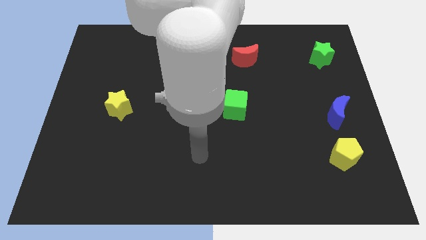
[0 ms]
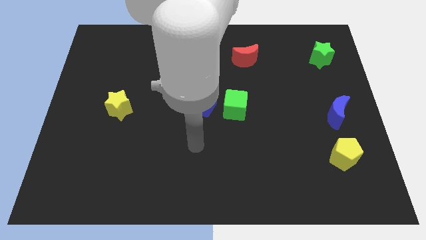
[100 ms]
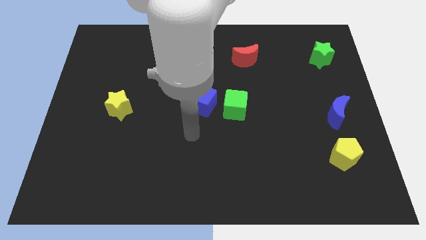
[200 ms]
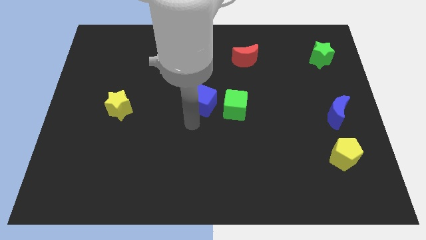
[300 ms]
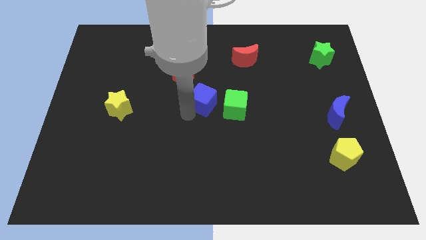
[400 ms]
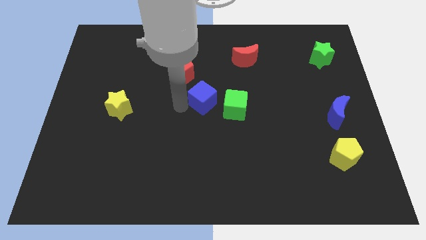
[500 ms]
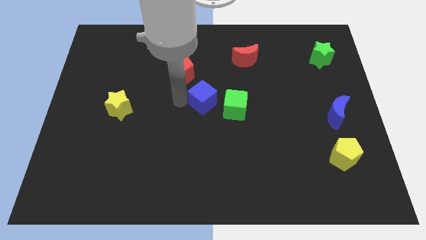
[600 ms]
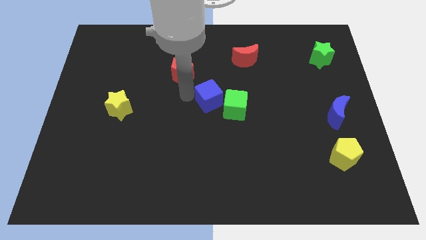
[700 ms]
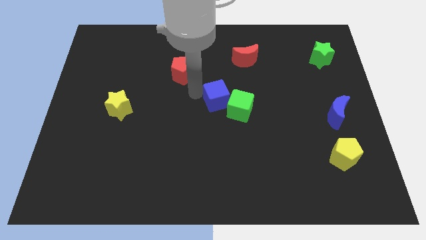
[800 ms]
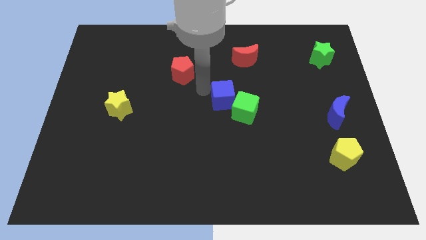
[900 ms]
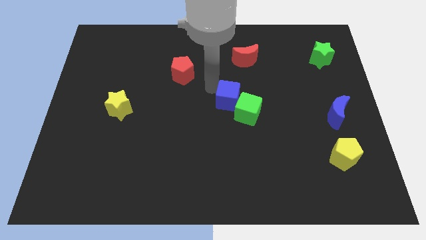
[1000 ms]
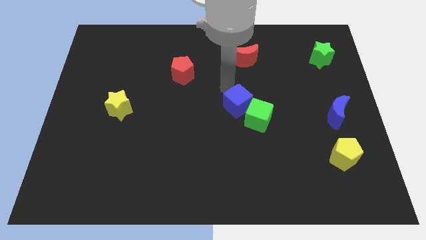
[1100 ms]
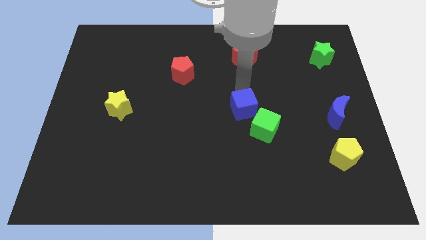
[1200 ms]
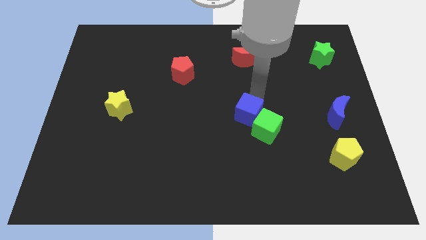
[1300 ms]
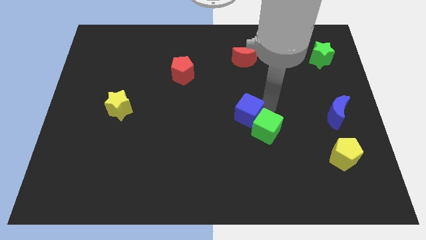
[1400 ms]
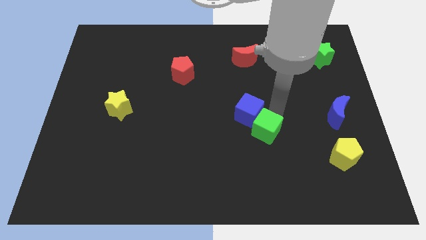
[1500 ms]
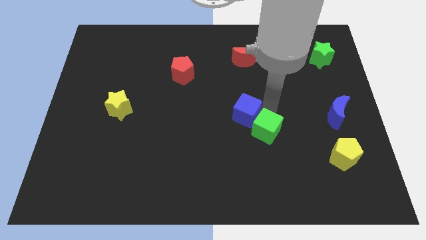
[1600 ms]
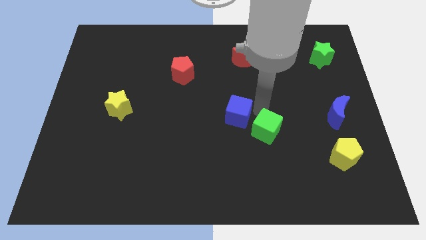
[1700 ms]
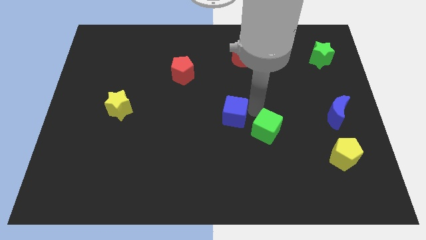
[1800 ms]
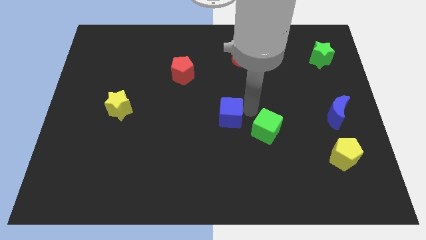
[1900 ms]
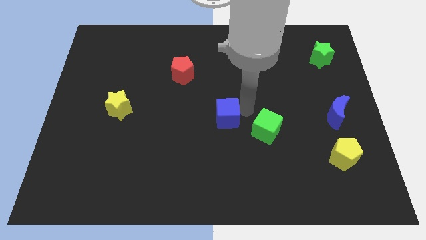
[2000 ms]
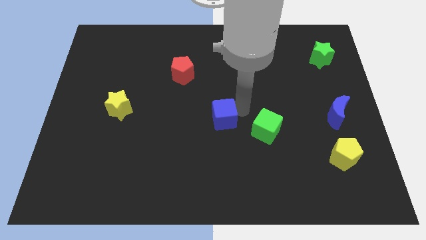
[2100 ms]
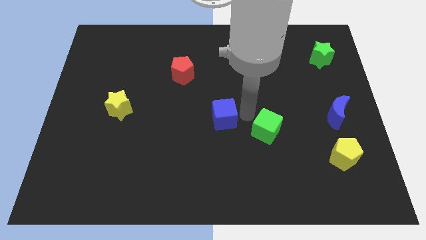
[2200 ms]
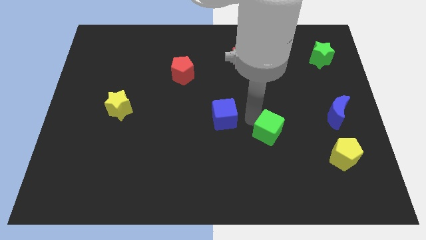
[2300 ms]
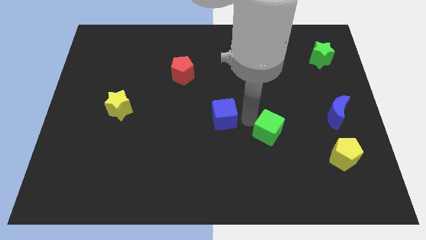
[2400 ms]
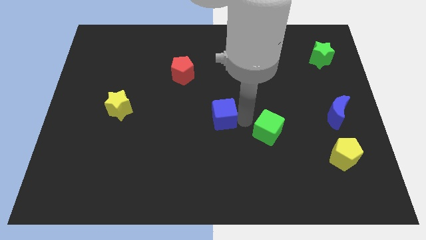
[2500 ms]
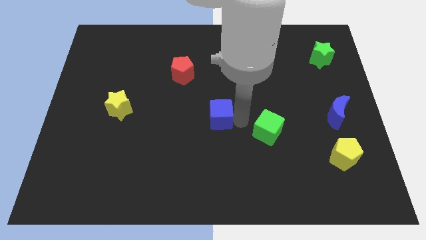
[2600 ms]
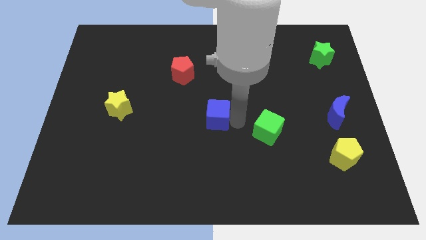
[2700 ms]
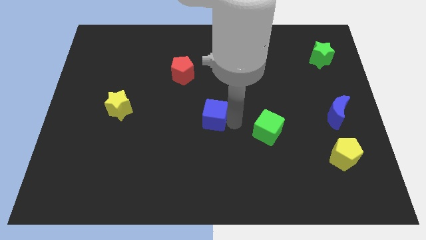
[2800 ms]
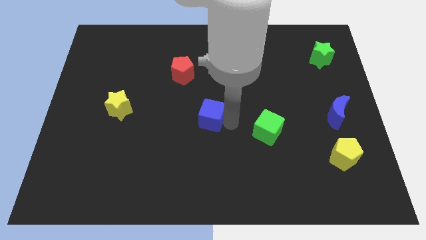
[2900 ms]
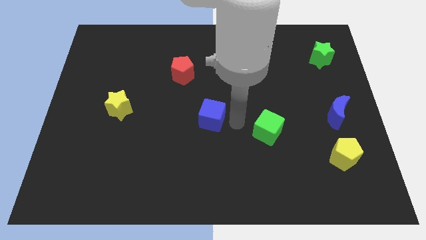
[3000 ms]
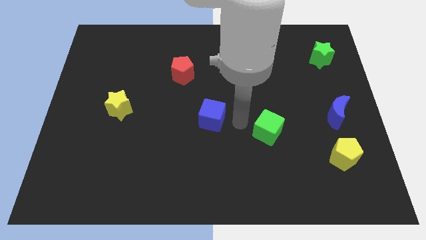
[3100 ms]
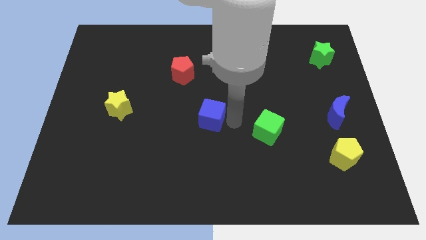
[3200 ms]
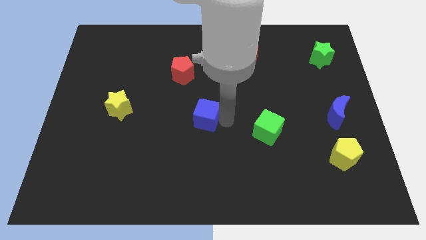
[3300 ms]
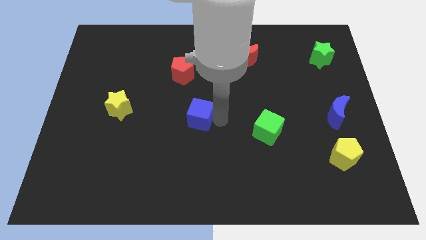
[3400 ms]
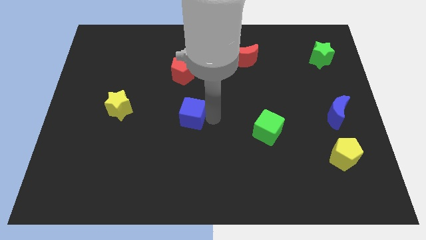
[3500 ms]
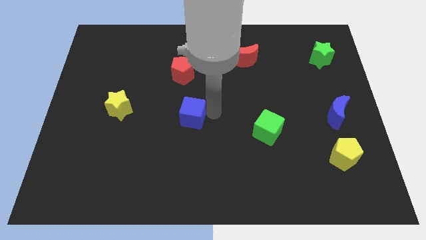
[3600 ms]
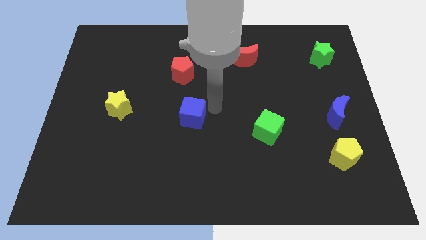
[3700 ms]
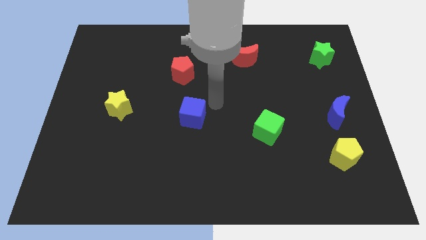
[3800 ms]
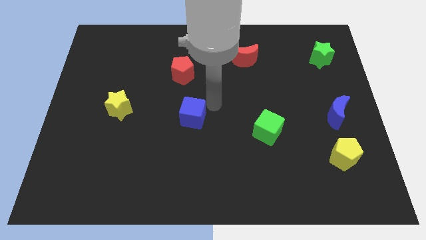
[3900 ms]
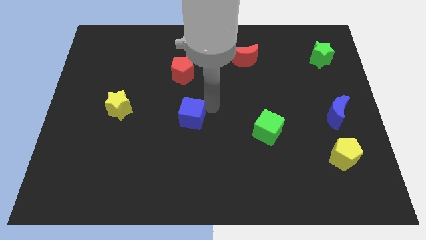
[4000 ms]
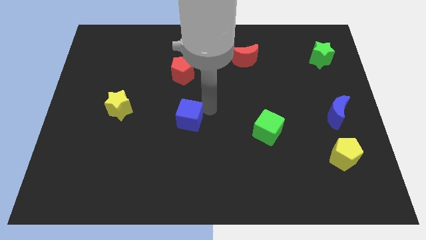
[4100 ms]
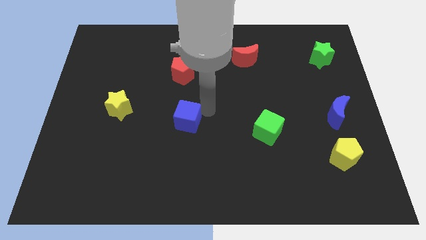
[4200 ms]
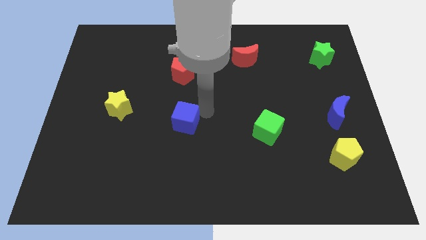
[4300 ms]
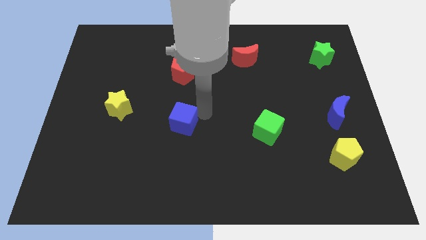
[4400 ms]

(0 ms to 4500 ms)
slightly slide the blue cube diagonally downwards and left

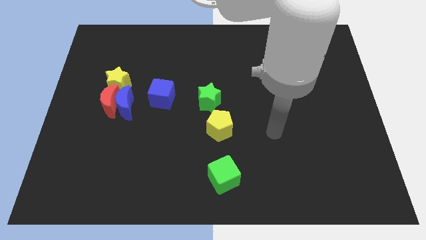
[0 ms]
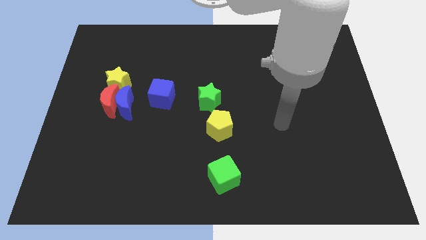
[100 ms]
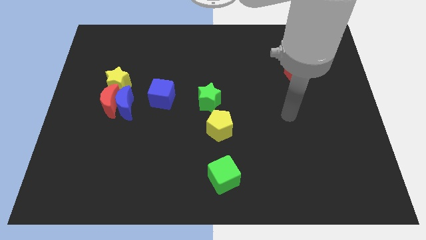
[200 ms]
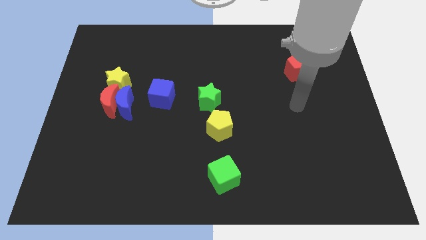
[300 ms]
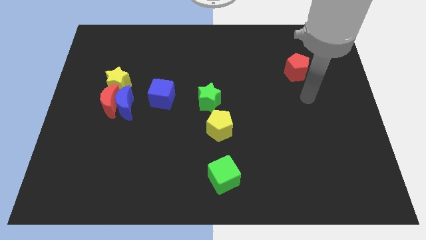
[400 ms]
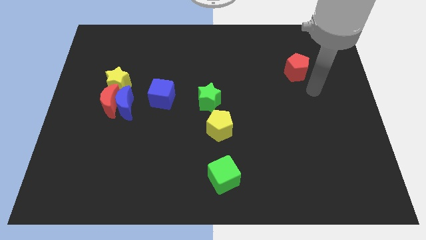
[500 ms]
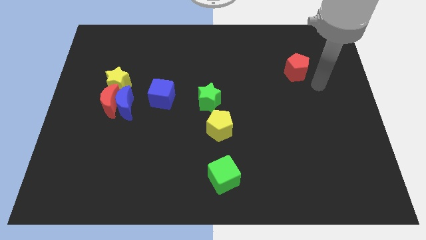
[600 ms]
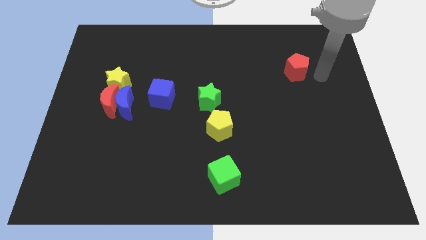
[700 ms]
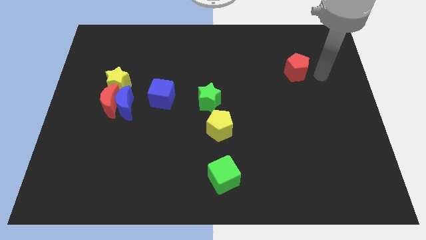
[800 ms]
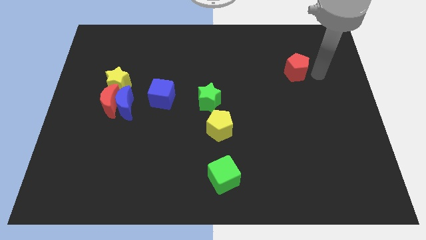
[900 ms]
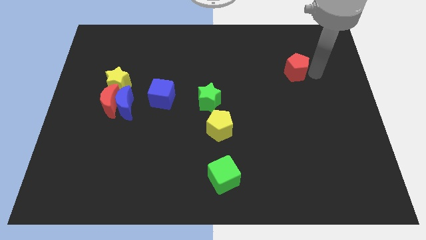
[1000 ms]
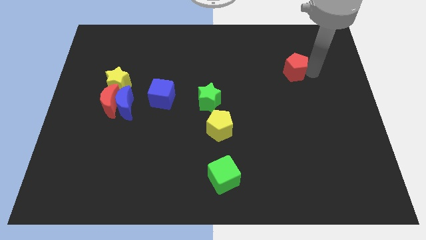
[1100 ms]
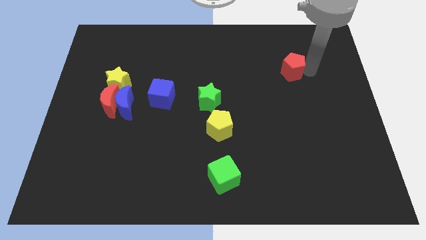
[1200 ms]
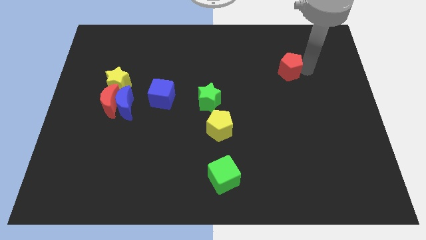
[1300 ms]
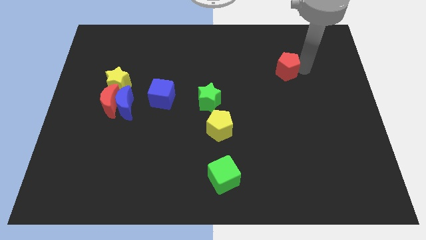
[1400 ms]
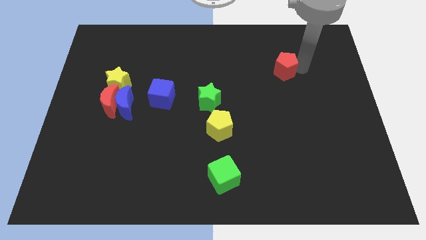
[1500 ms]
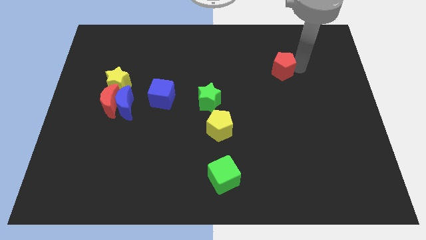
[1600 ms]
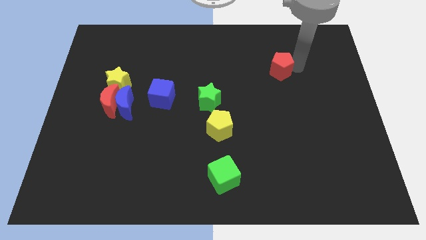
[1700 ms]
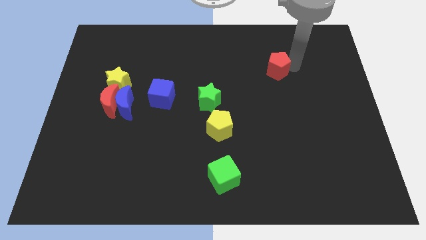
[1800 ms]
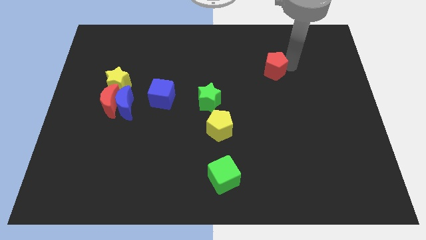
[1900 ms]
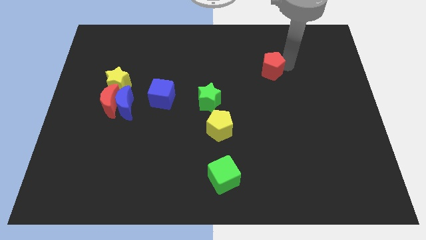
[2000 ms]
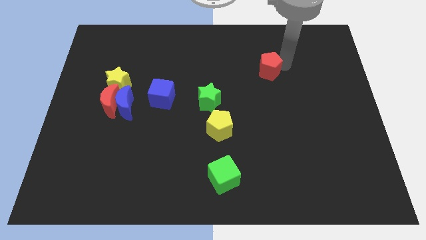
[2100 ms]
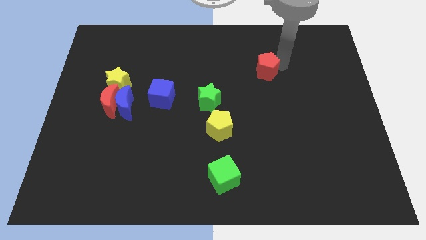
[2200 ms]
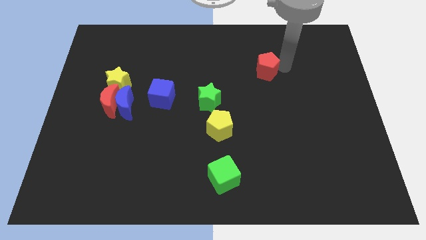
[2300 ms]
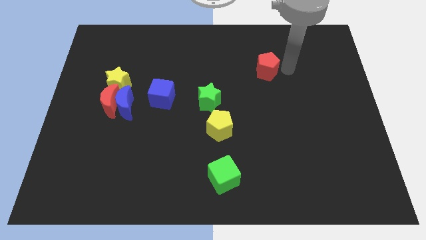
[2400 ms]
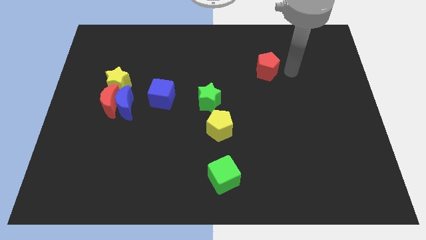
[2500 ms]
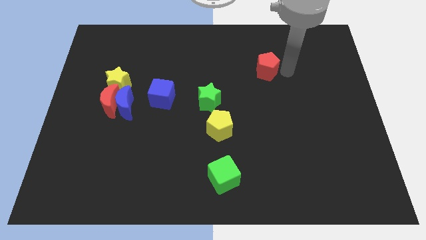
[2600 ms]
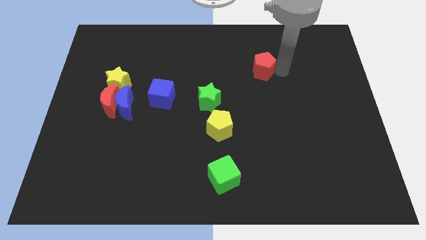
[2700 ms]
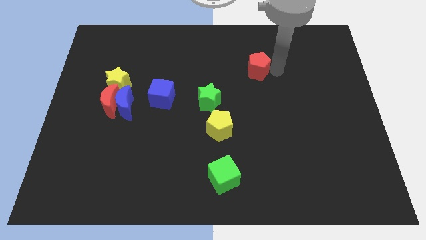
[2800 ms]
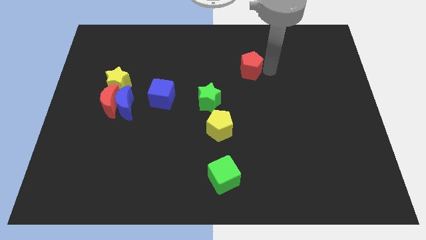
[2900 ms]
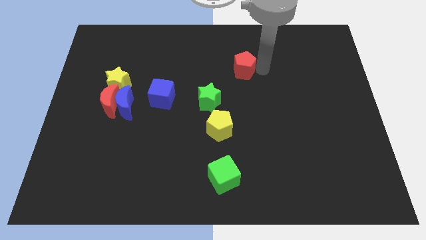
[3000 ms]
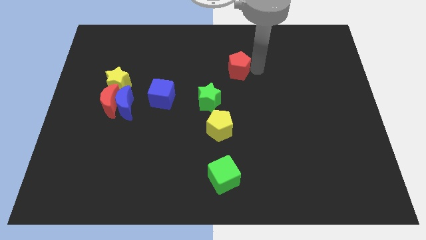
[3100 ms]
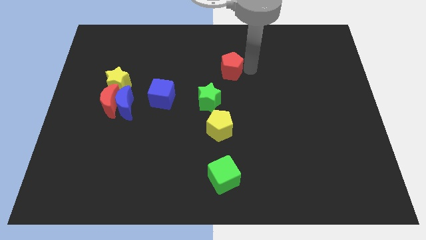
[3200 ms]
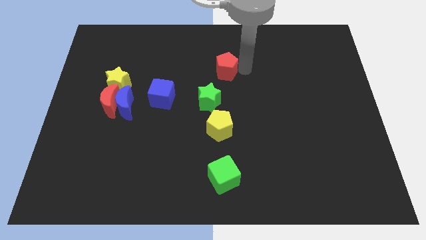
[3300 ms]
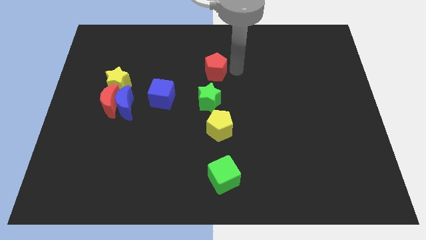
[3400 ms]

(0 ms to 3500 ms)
push the red pentagon left

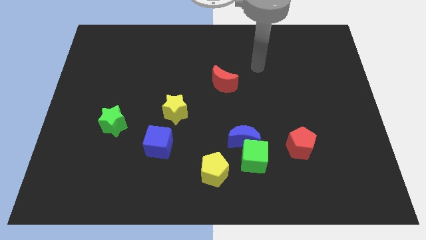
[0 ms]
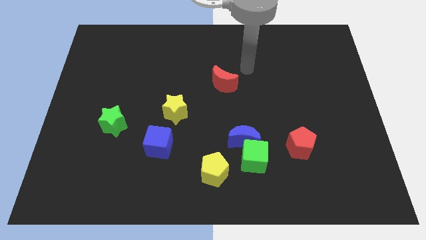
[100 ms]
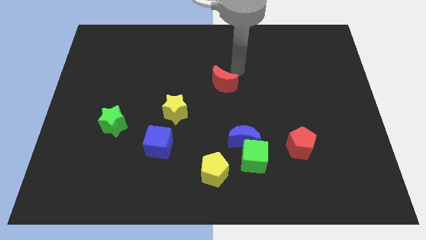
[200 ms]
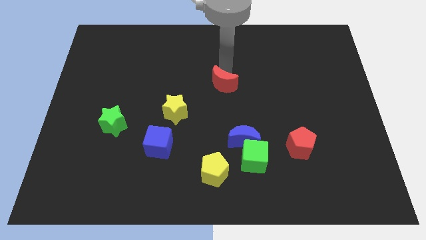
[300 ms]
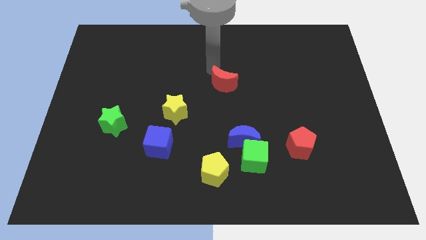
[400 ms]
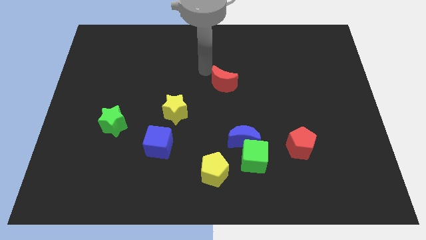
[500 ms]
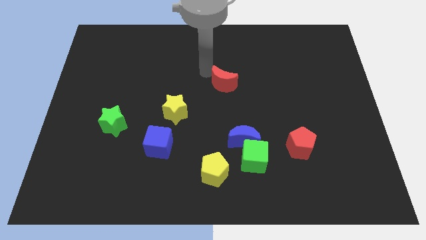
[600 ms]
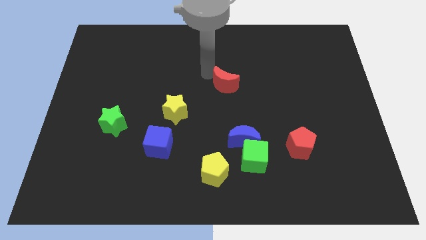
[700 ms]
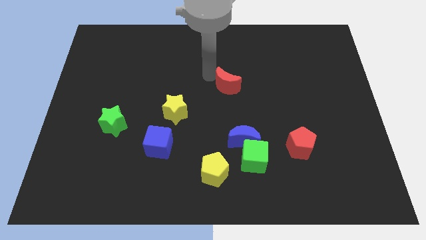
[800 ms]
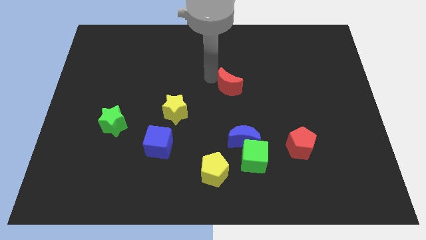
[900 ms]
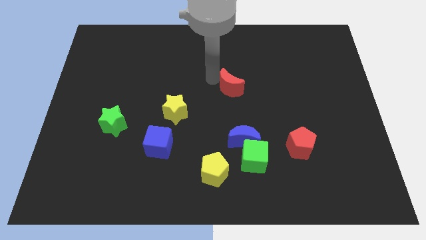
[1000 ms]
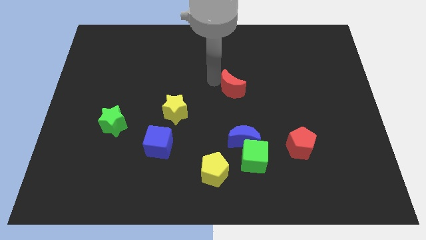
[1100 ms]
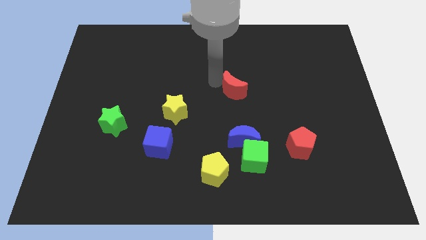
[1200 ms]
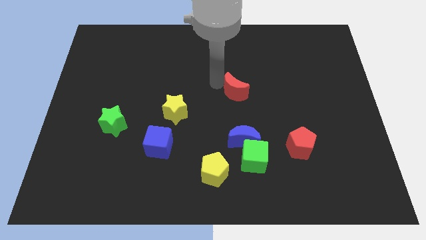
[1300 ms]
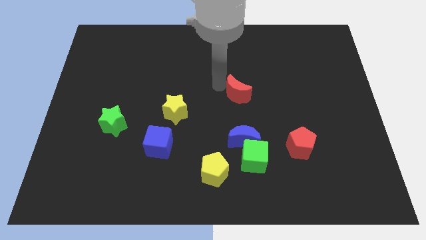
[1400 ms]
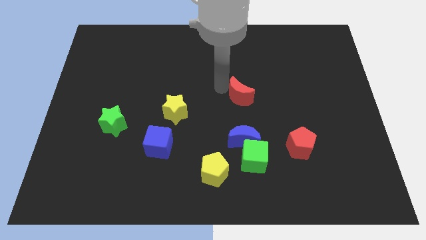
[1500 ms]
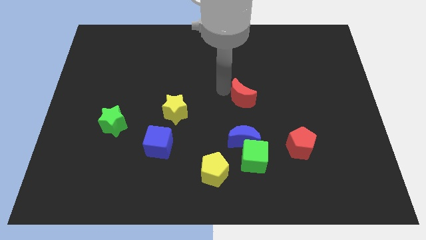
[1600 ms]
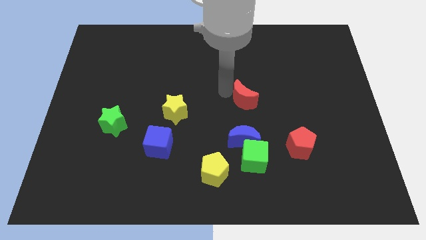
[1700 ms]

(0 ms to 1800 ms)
push the red moon slightly diagonally downwards and right
